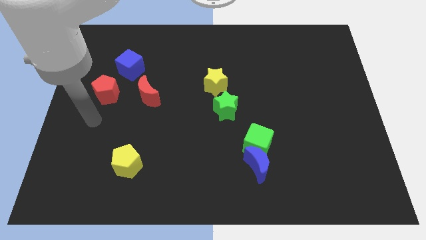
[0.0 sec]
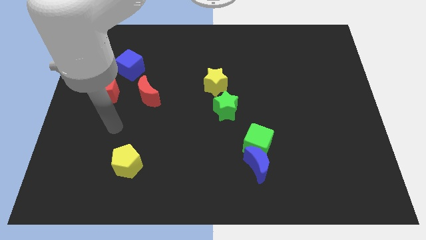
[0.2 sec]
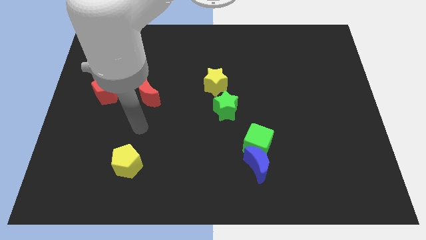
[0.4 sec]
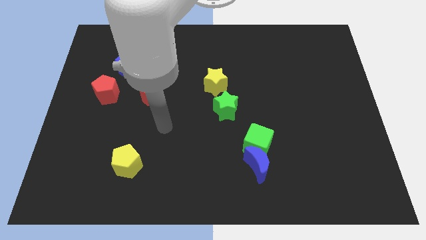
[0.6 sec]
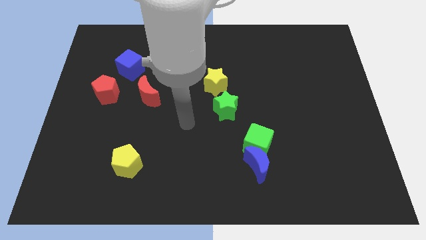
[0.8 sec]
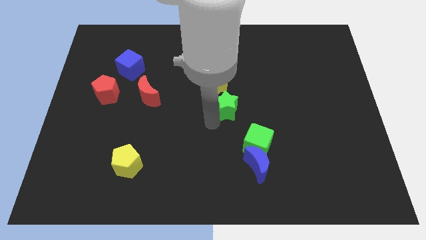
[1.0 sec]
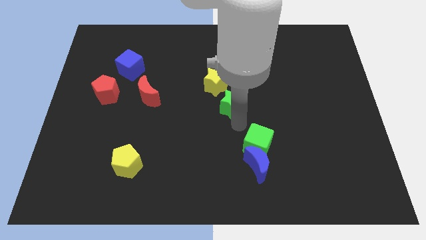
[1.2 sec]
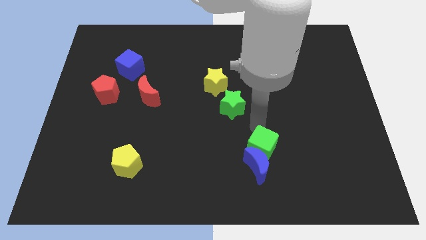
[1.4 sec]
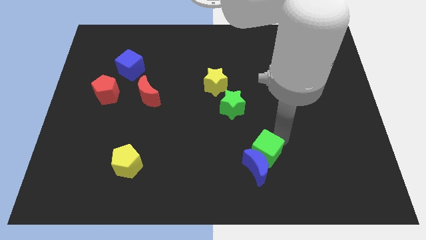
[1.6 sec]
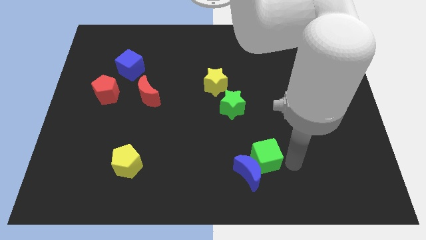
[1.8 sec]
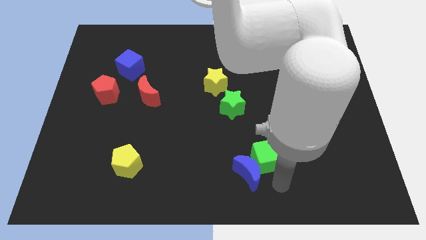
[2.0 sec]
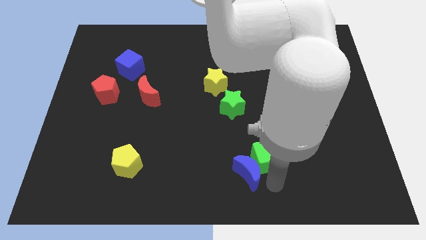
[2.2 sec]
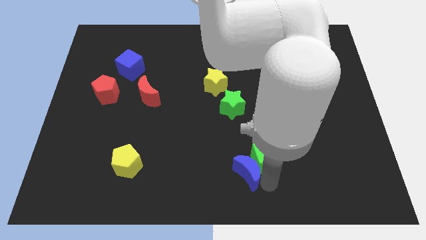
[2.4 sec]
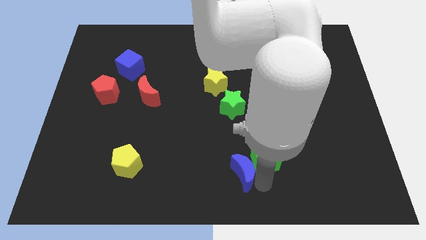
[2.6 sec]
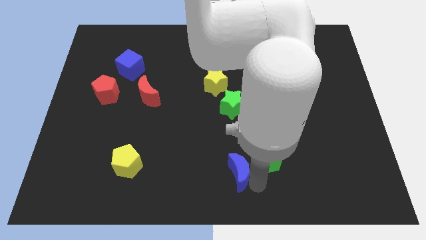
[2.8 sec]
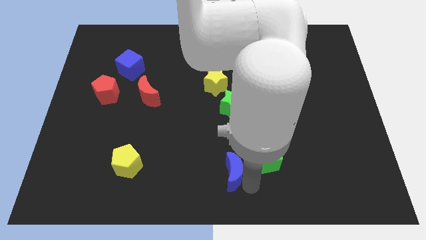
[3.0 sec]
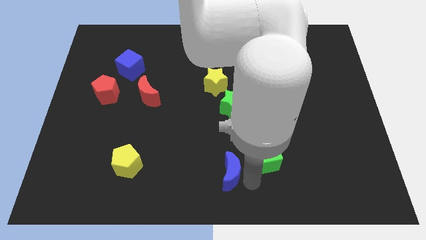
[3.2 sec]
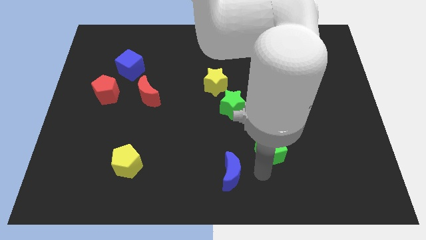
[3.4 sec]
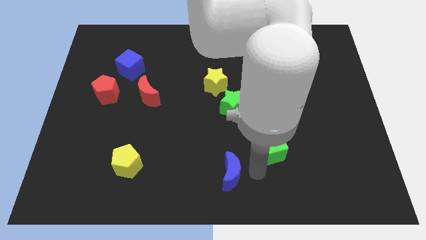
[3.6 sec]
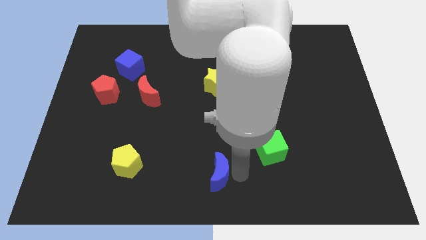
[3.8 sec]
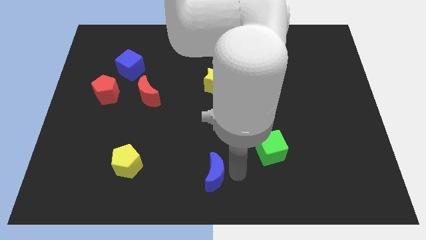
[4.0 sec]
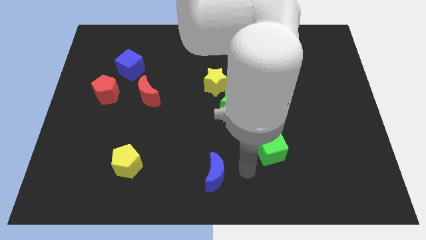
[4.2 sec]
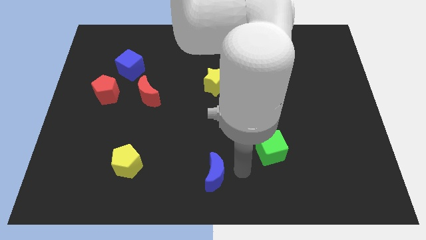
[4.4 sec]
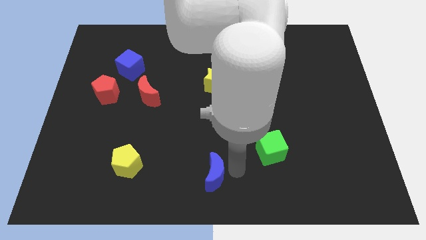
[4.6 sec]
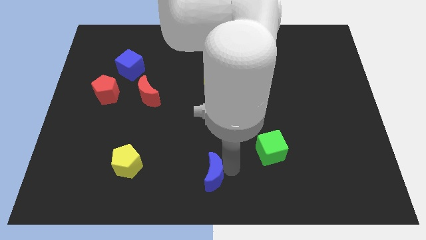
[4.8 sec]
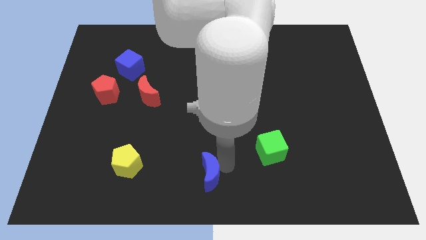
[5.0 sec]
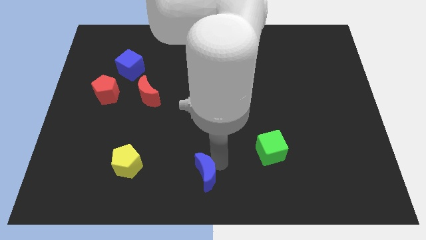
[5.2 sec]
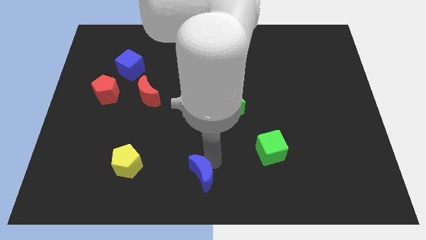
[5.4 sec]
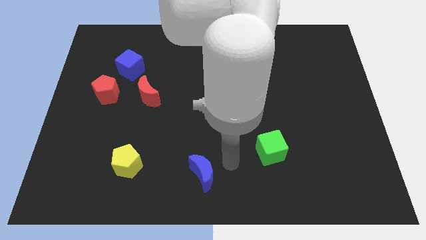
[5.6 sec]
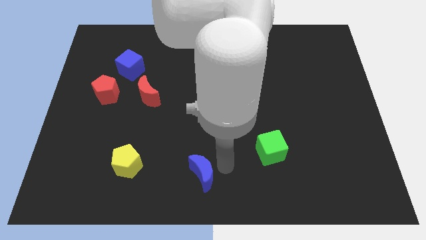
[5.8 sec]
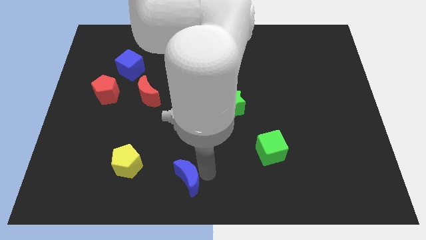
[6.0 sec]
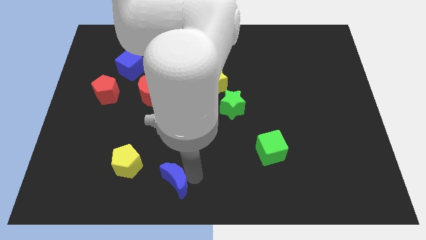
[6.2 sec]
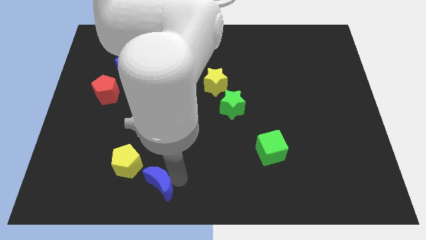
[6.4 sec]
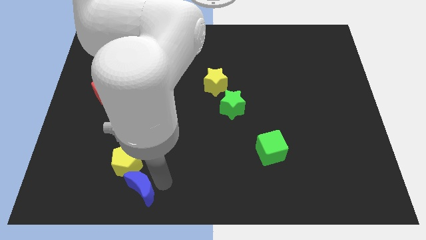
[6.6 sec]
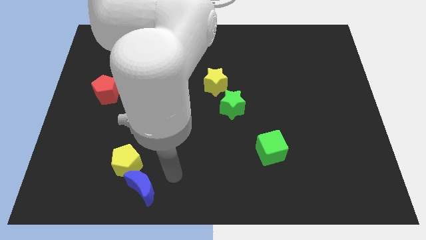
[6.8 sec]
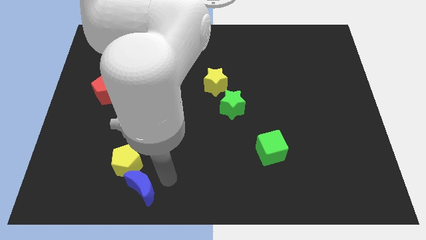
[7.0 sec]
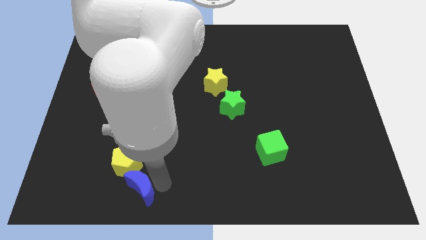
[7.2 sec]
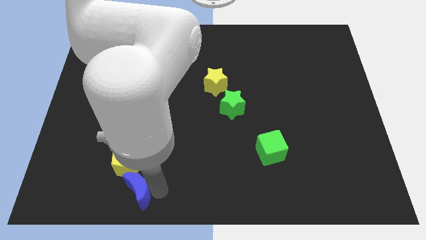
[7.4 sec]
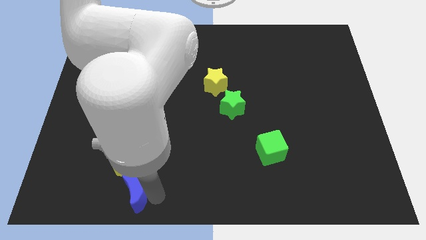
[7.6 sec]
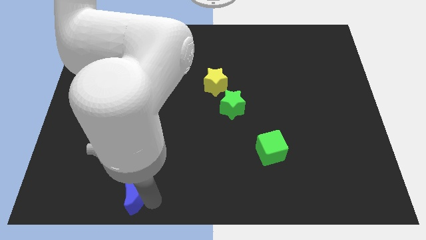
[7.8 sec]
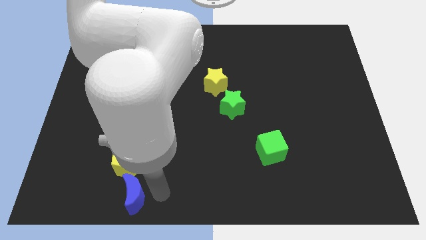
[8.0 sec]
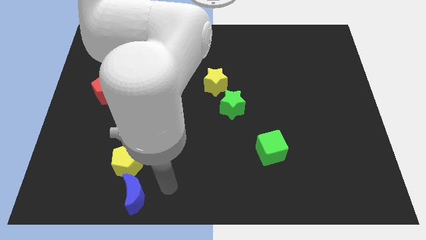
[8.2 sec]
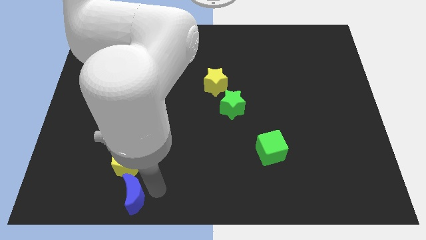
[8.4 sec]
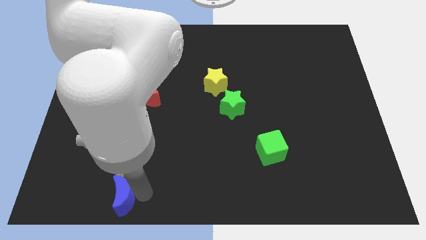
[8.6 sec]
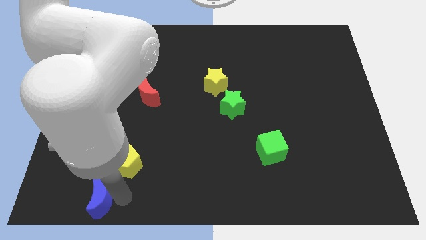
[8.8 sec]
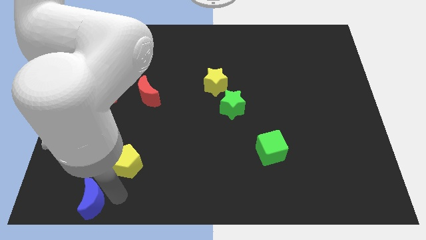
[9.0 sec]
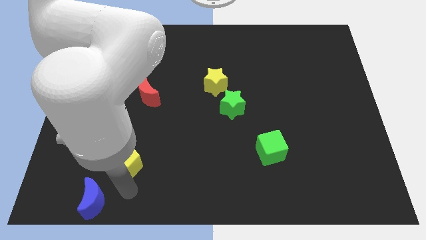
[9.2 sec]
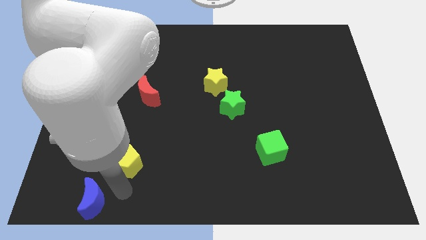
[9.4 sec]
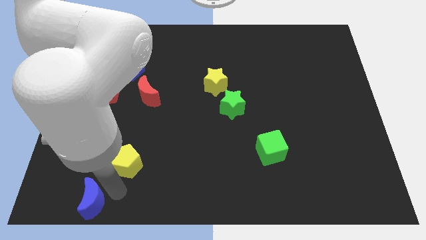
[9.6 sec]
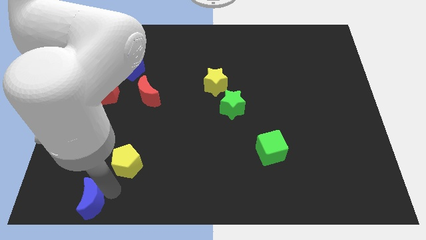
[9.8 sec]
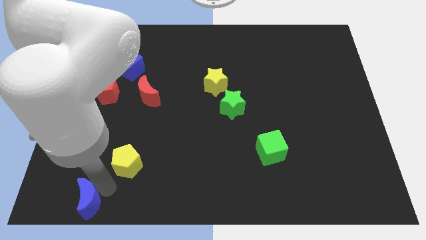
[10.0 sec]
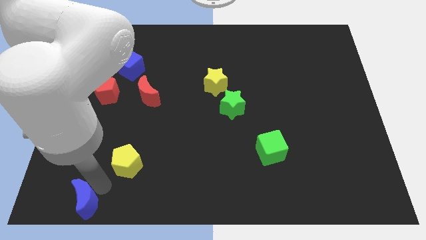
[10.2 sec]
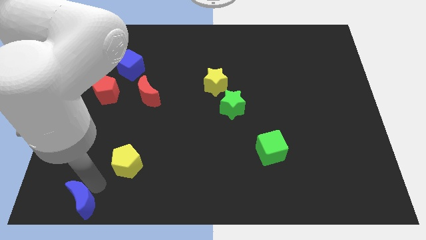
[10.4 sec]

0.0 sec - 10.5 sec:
put the blue moon to the bottom left of the board

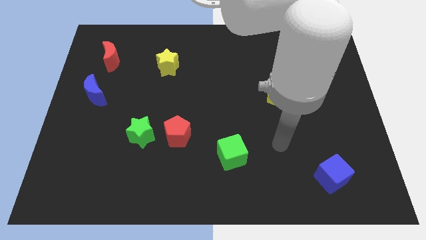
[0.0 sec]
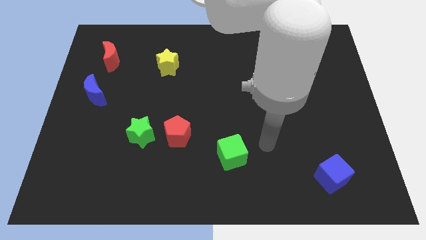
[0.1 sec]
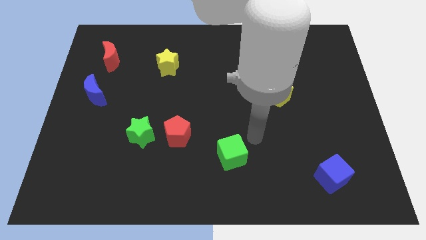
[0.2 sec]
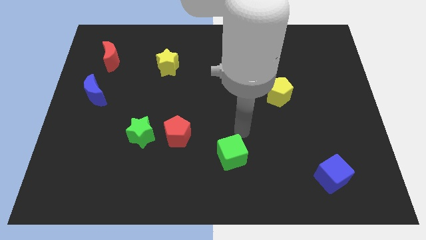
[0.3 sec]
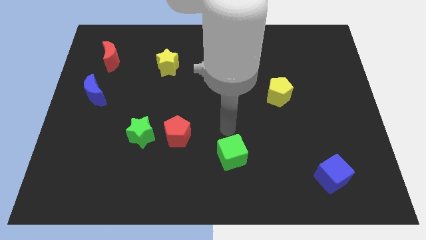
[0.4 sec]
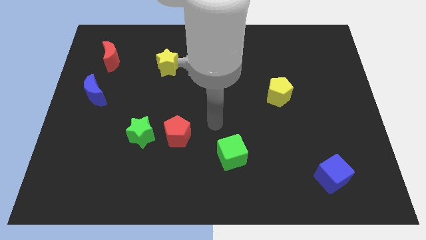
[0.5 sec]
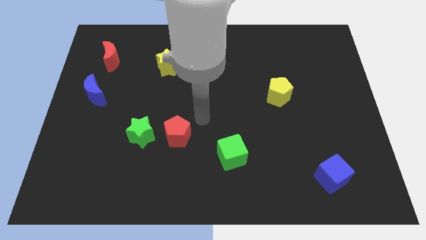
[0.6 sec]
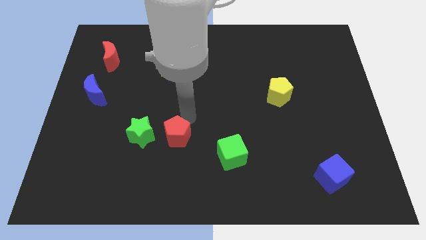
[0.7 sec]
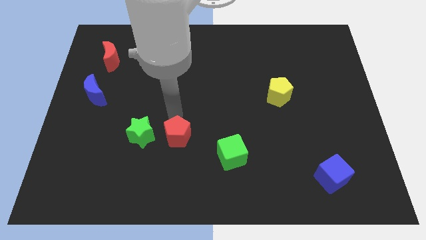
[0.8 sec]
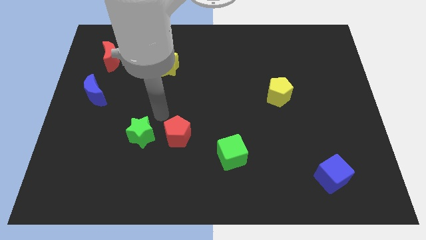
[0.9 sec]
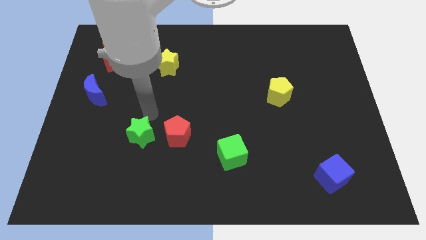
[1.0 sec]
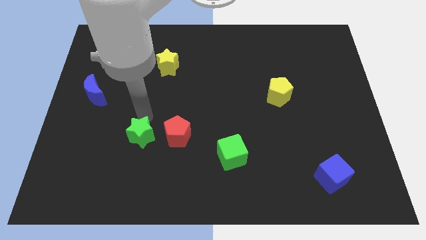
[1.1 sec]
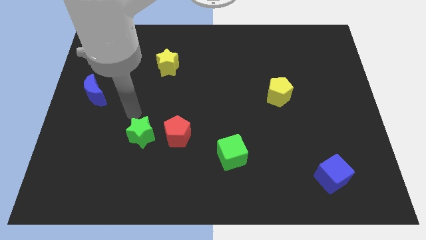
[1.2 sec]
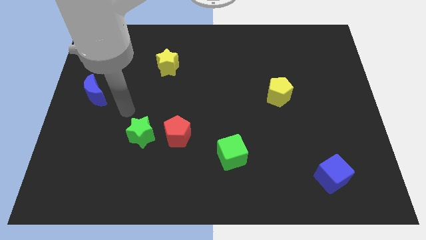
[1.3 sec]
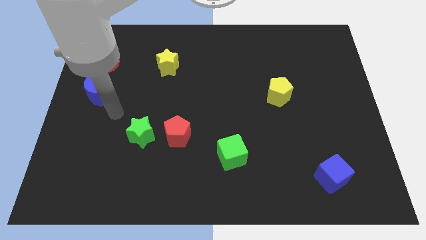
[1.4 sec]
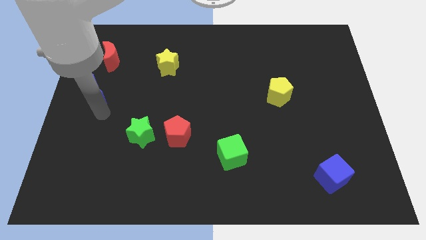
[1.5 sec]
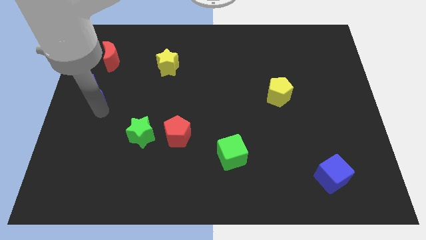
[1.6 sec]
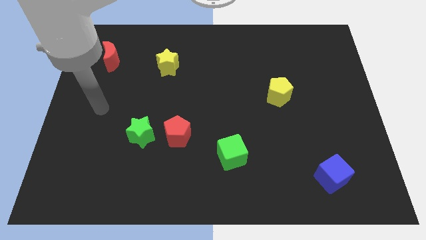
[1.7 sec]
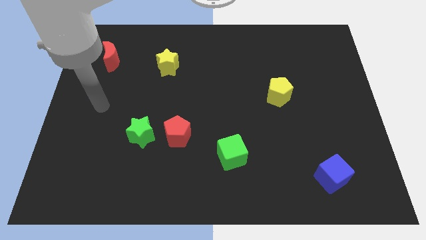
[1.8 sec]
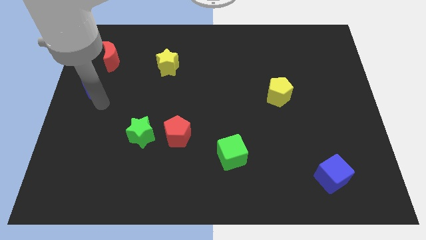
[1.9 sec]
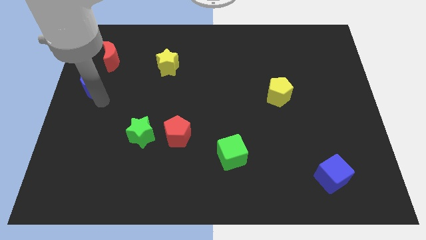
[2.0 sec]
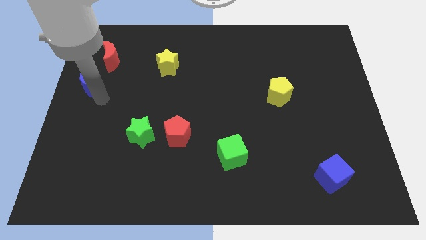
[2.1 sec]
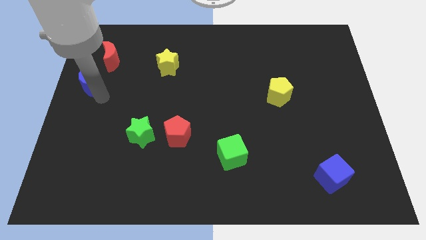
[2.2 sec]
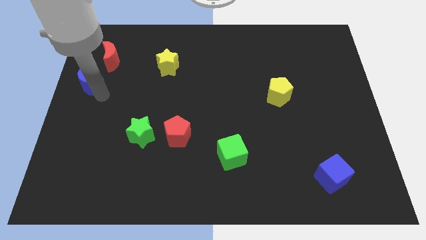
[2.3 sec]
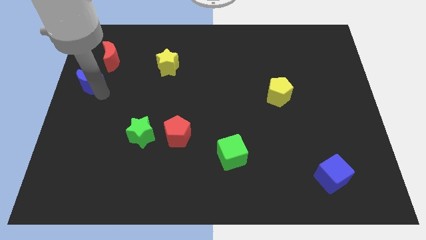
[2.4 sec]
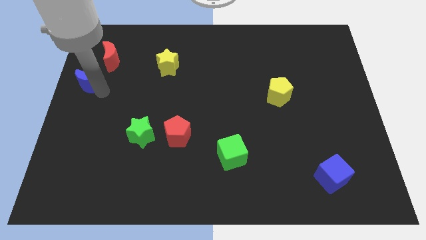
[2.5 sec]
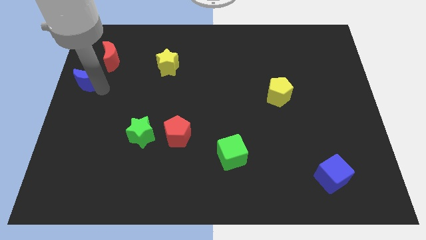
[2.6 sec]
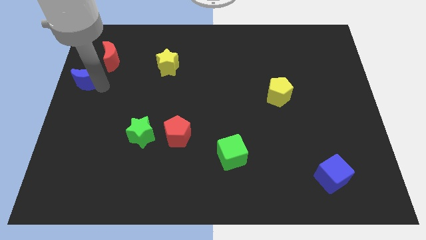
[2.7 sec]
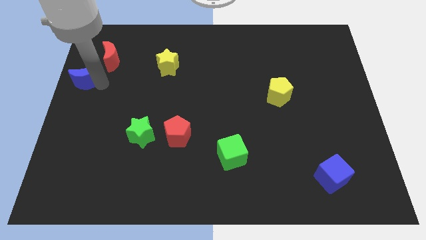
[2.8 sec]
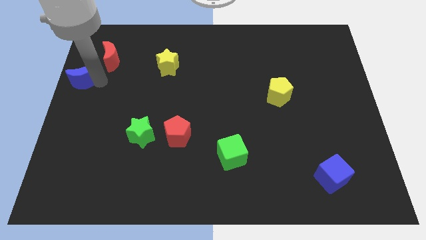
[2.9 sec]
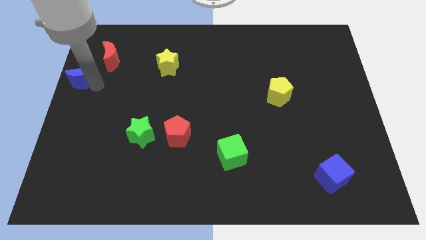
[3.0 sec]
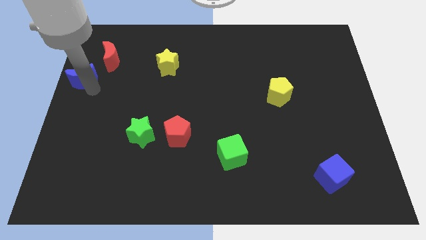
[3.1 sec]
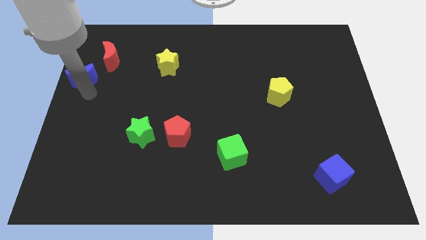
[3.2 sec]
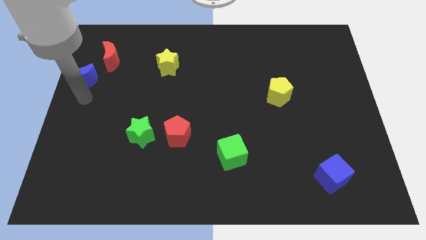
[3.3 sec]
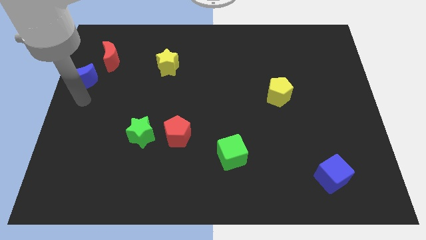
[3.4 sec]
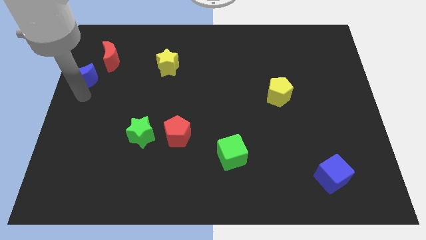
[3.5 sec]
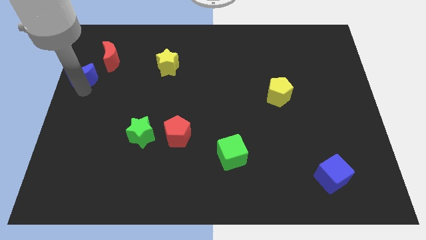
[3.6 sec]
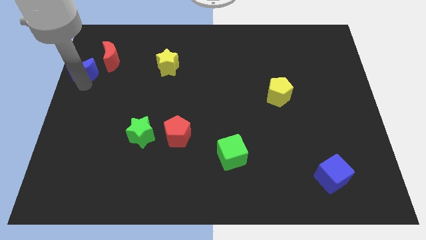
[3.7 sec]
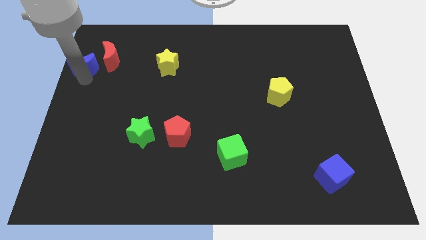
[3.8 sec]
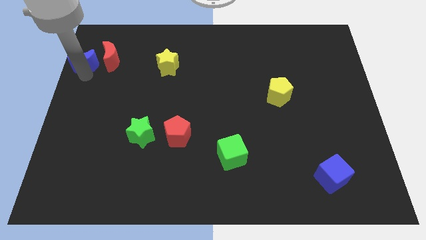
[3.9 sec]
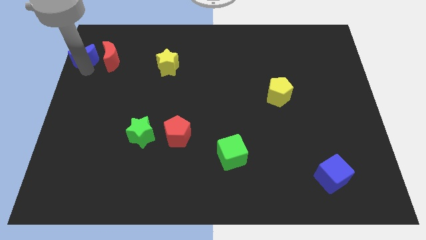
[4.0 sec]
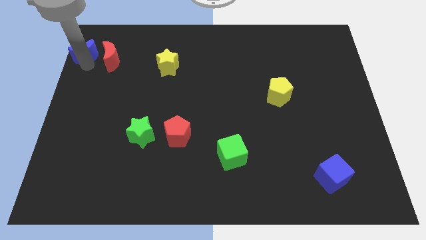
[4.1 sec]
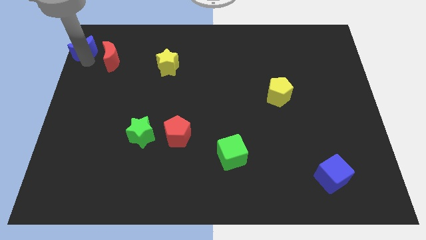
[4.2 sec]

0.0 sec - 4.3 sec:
put the blue moon to the top left corner
